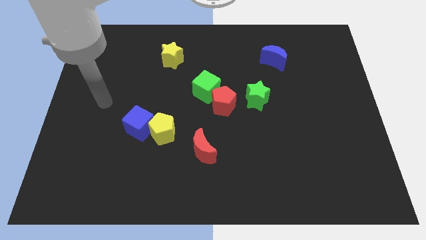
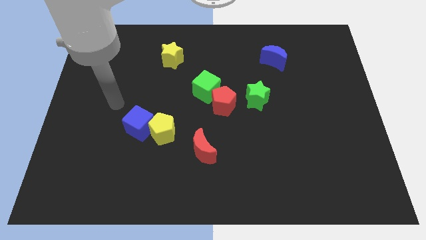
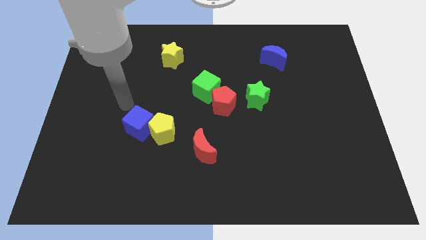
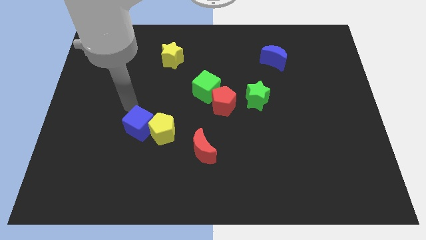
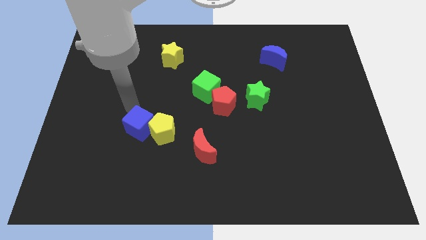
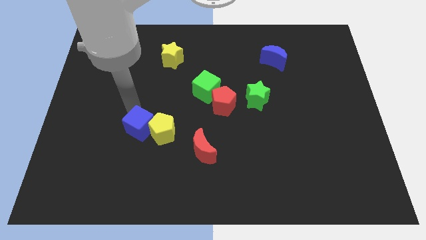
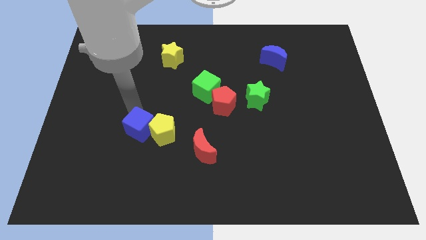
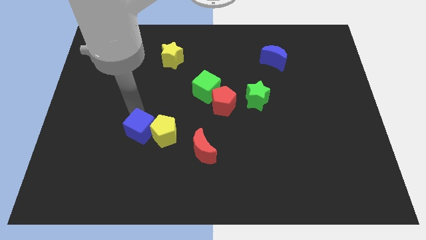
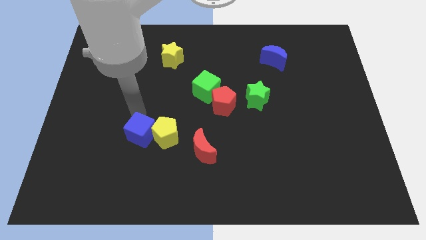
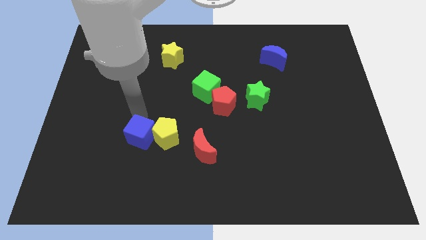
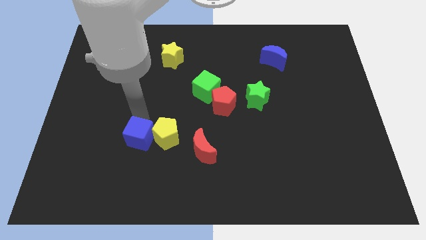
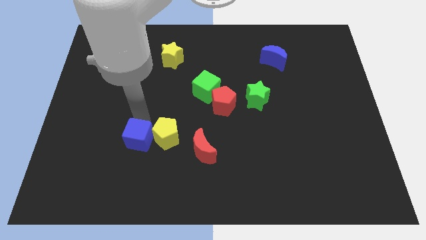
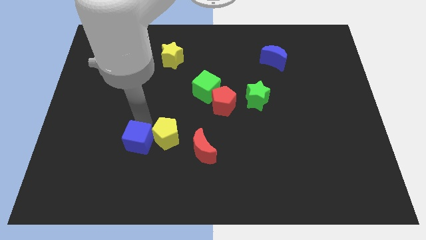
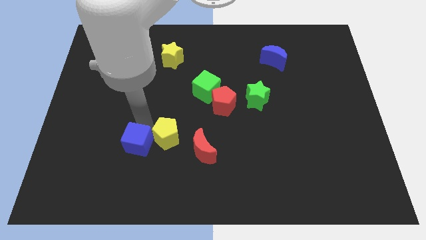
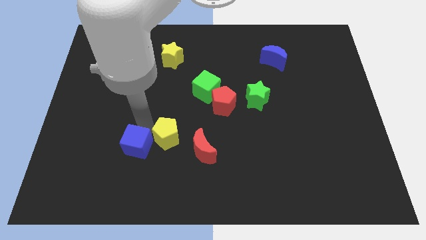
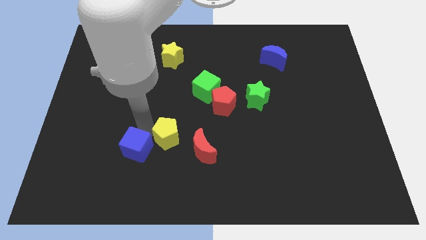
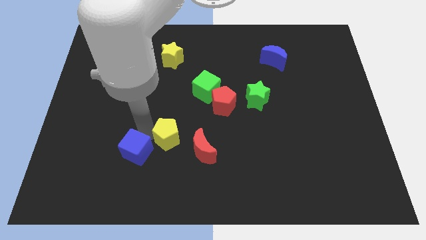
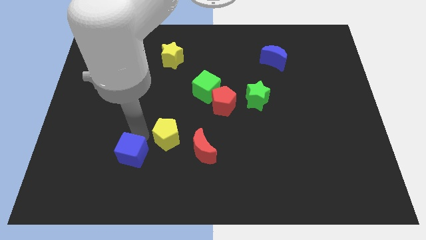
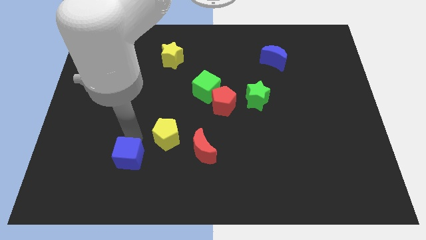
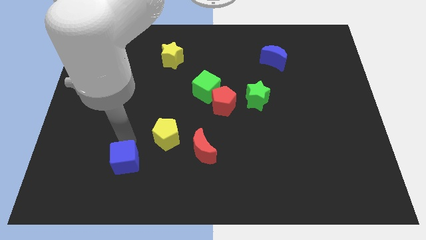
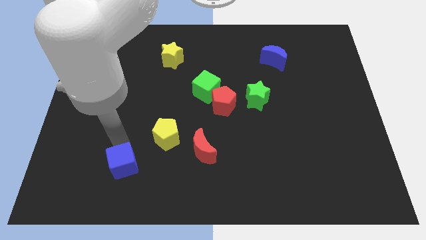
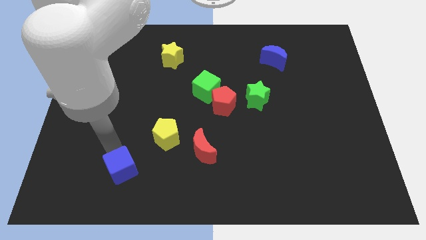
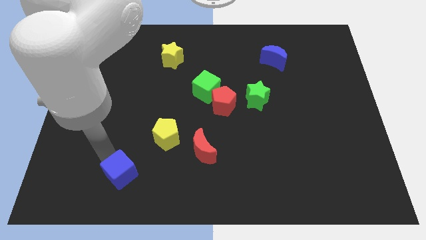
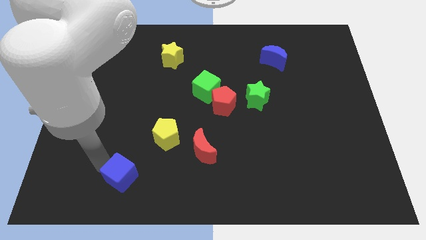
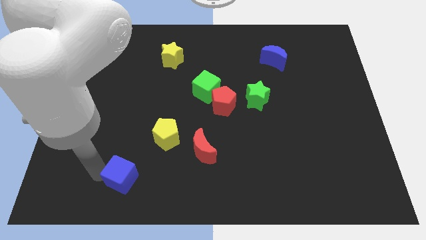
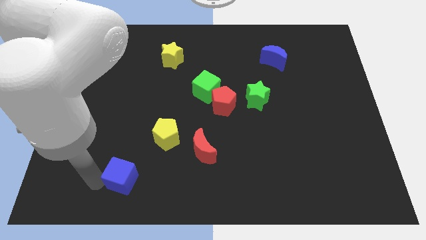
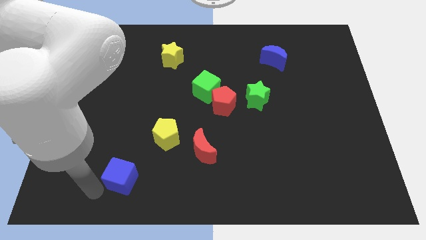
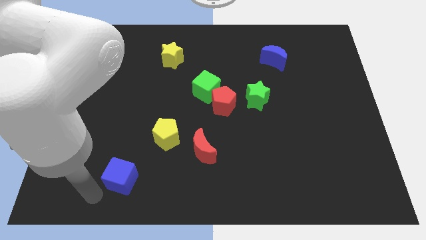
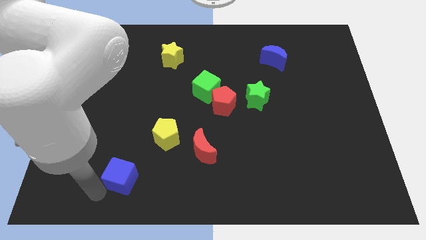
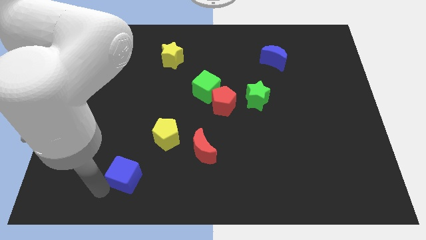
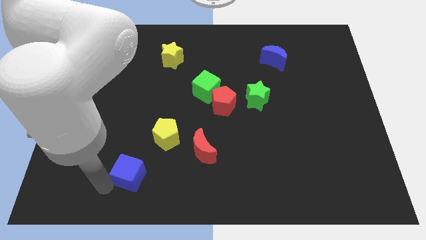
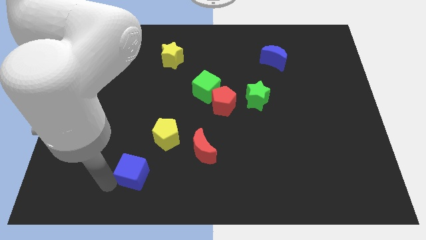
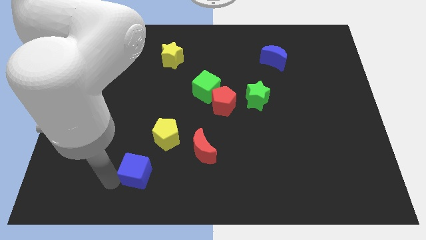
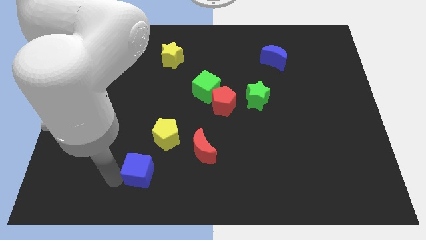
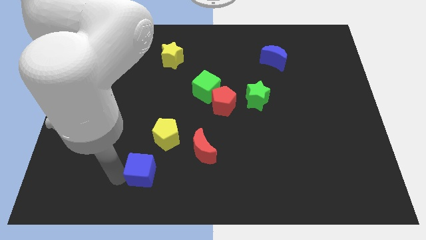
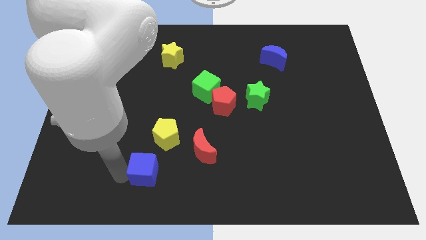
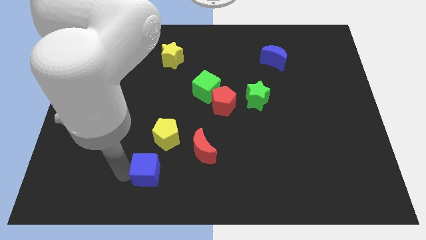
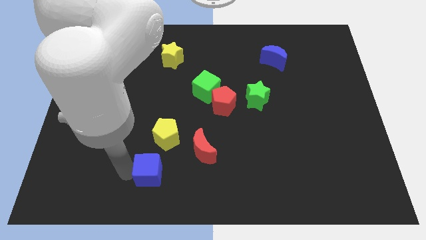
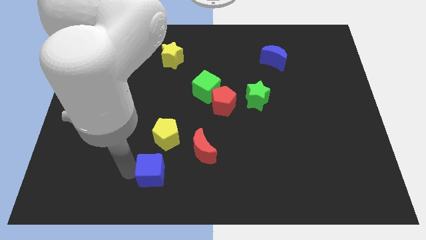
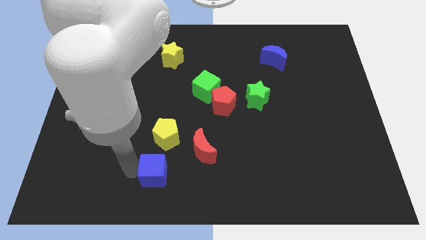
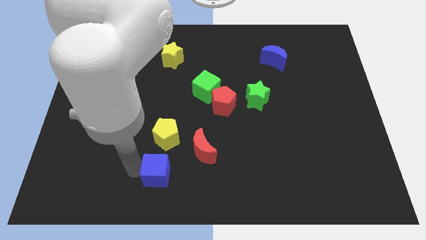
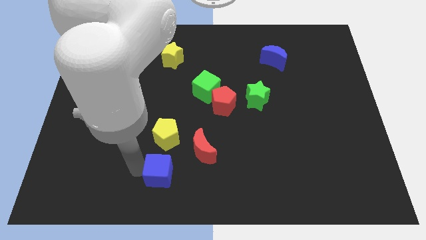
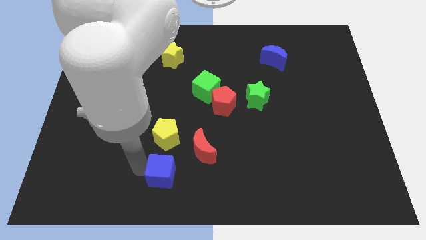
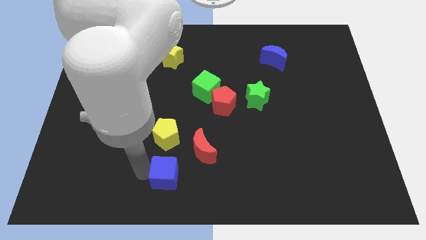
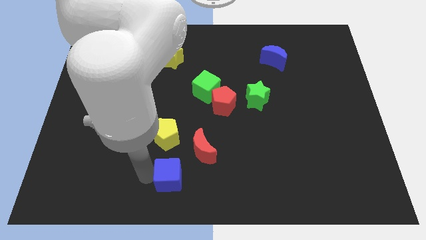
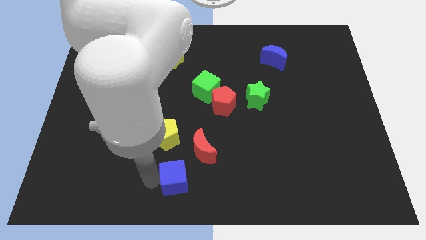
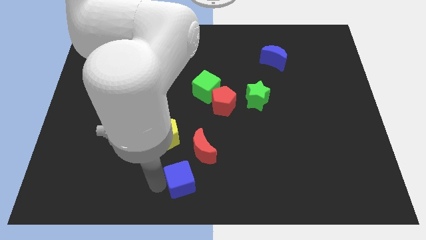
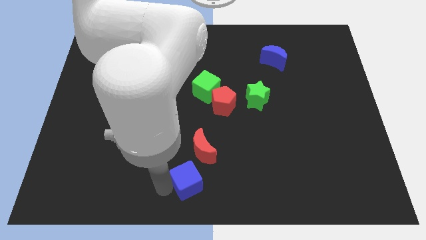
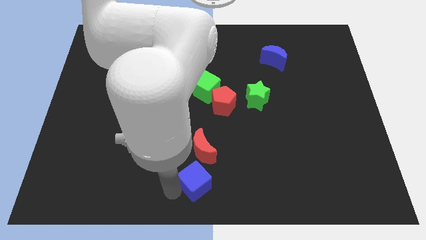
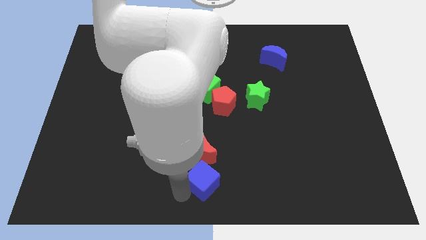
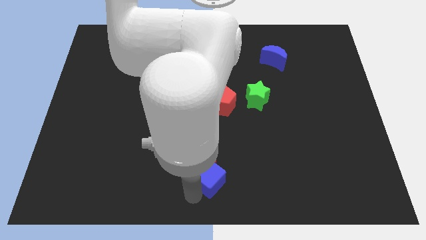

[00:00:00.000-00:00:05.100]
slide the blue cube diagonally down and to the right of the red moon

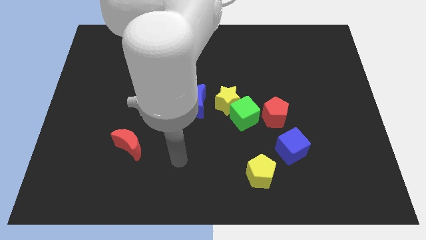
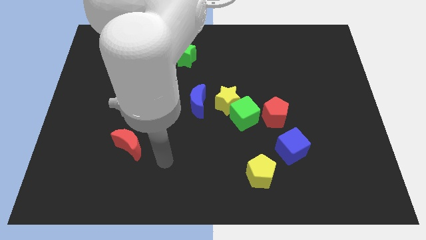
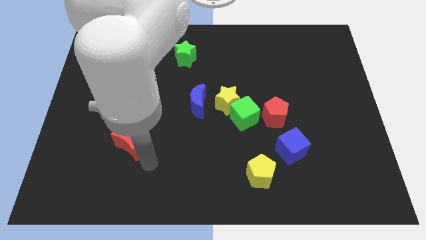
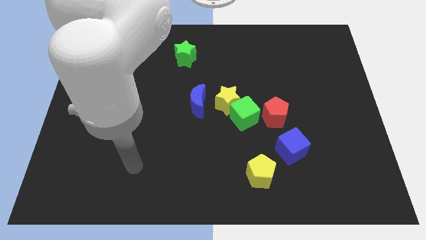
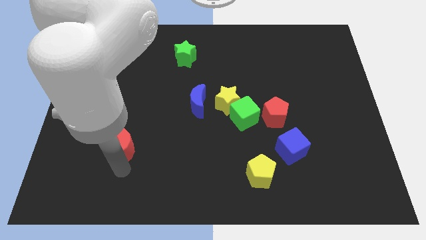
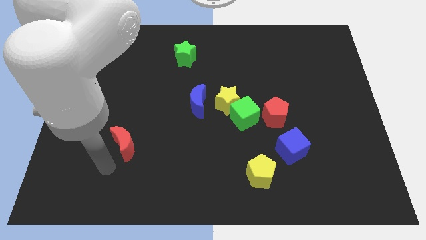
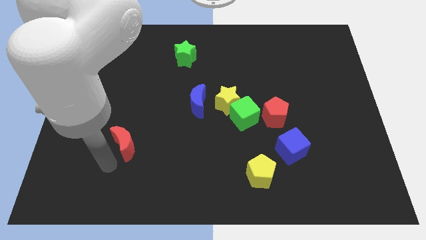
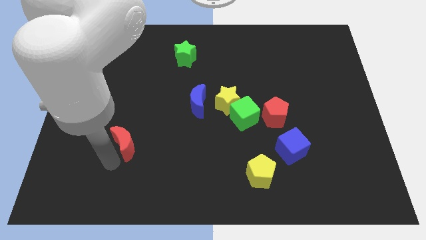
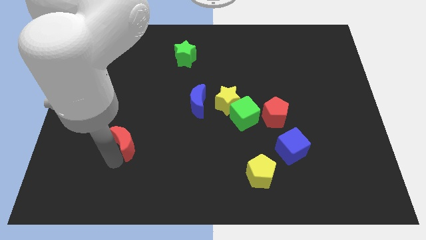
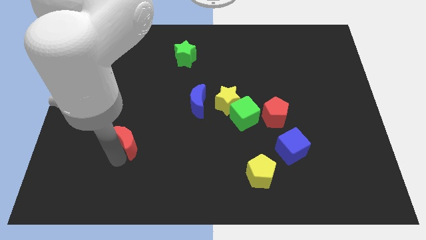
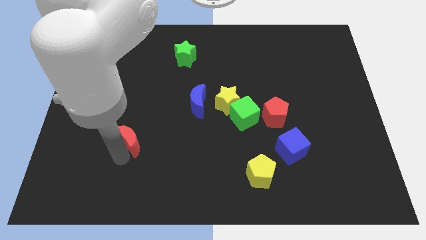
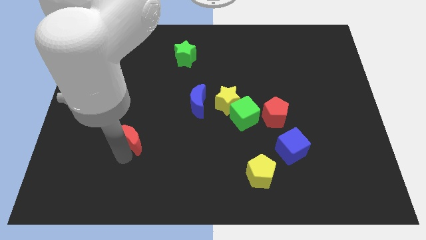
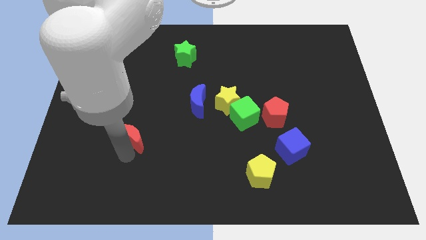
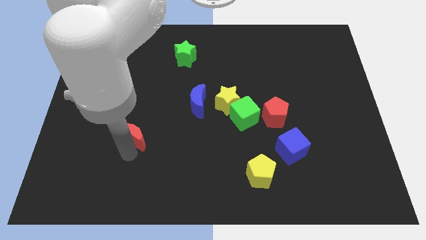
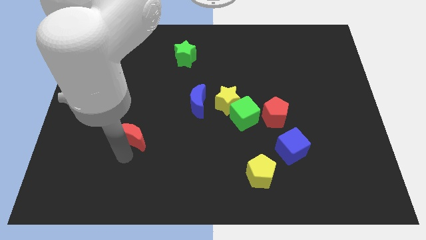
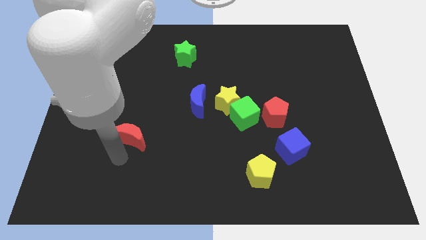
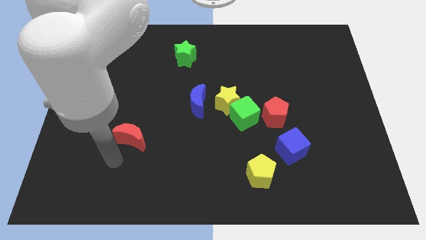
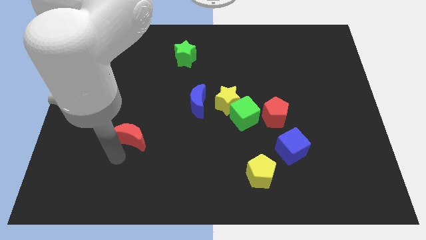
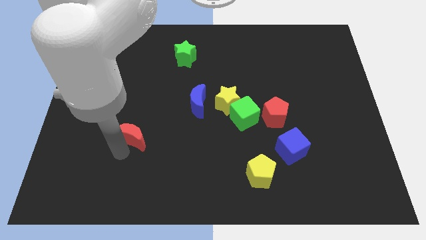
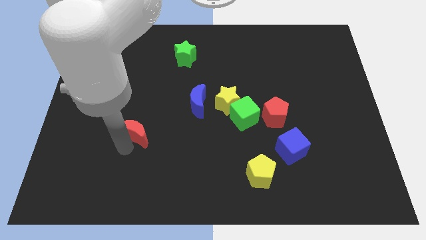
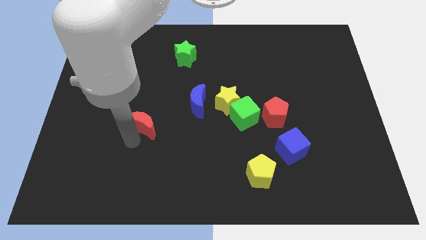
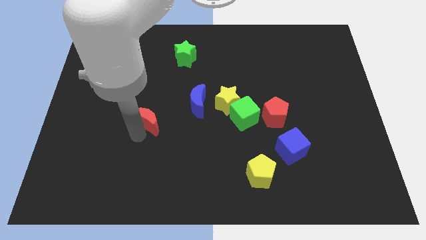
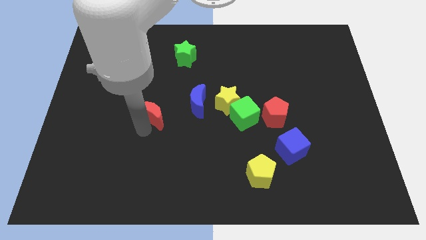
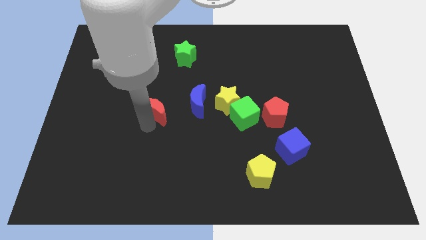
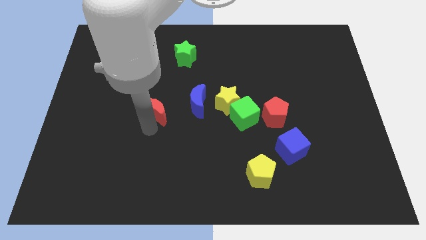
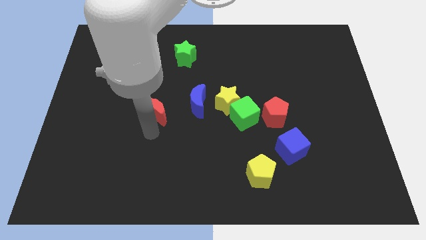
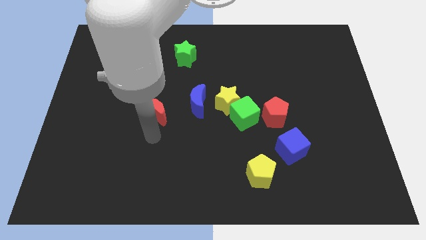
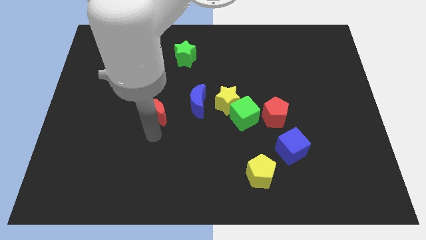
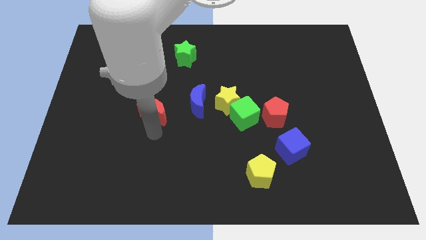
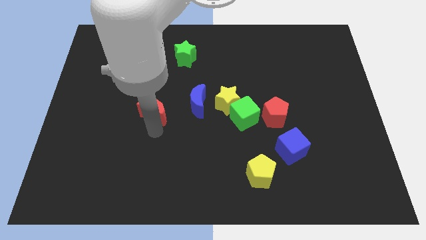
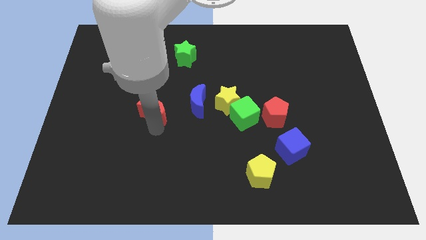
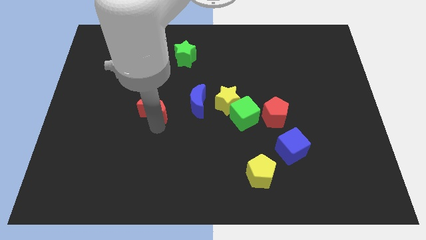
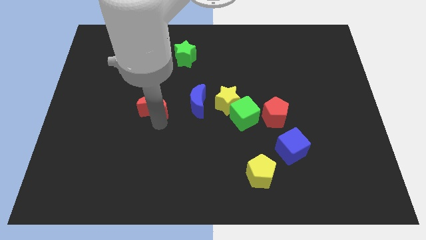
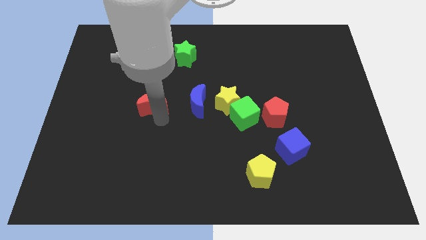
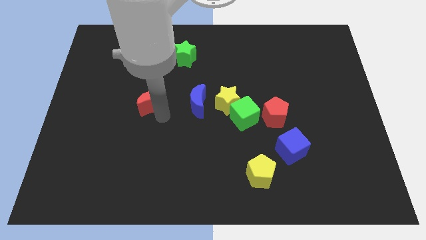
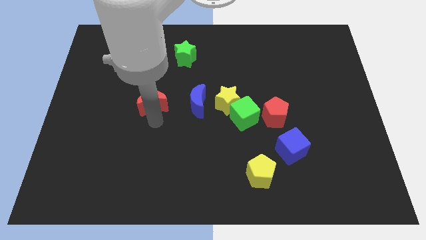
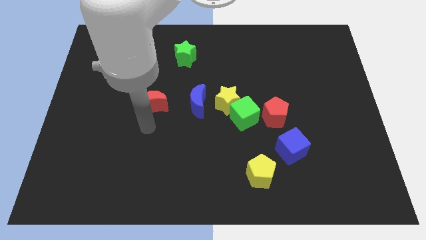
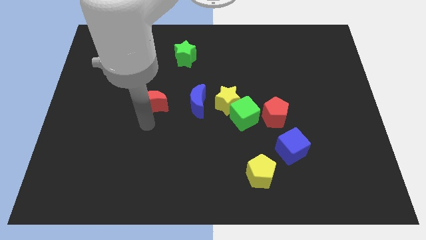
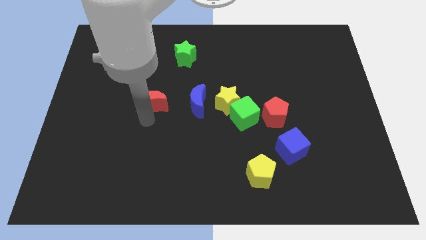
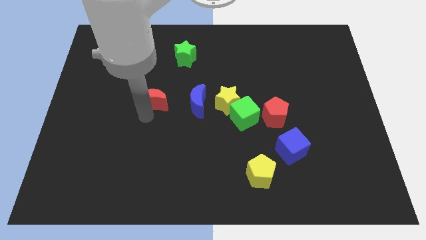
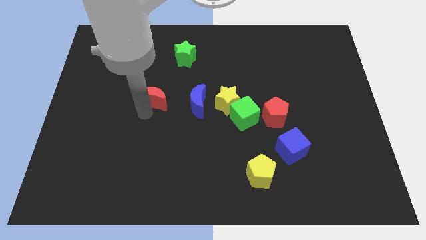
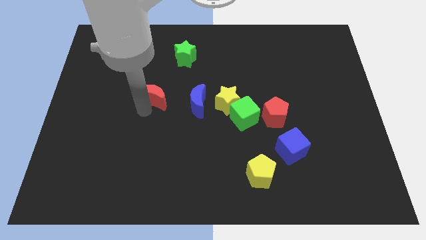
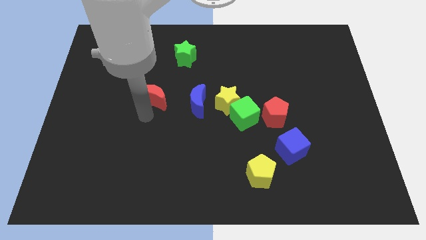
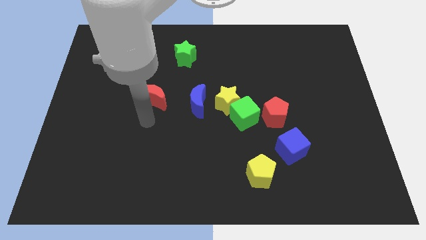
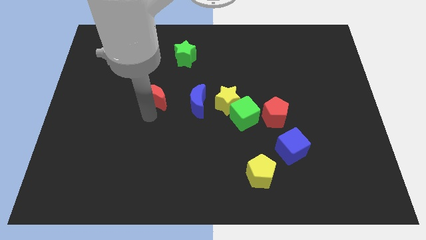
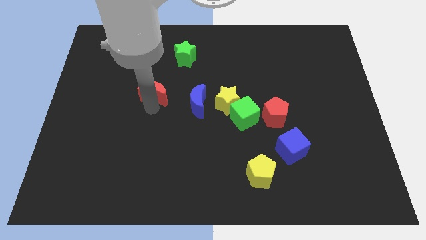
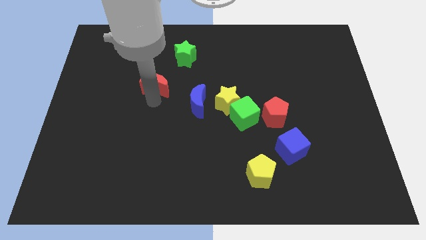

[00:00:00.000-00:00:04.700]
put the red moon diagonally down and to the left of the green star
